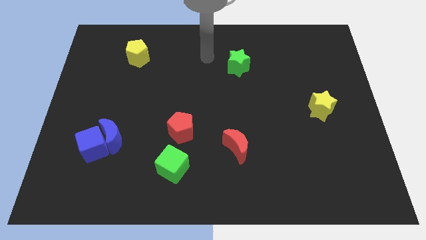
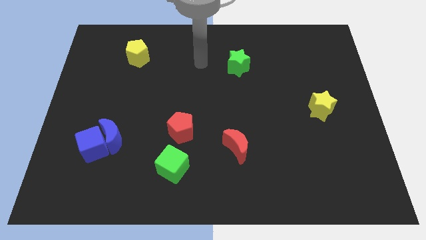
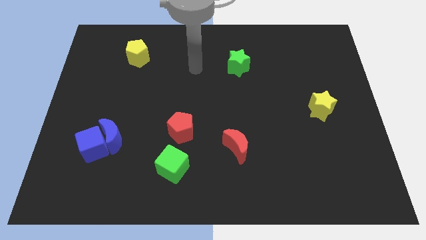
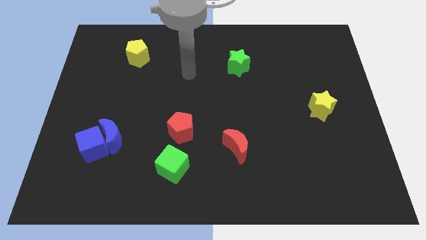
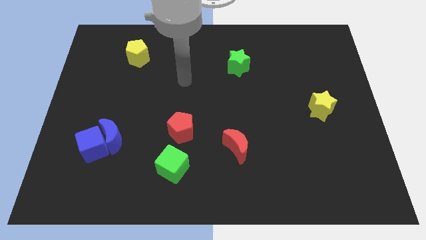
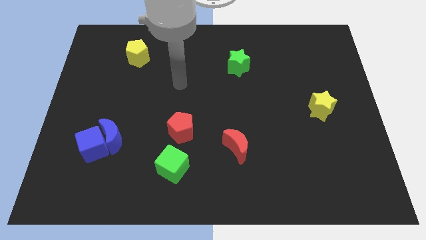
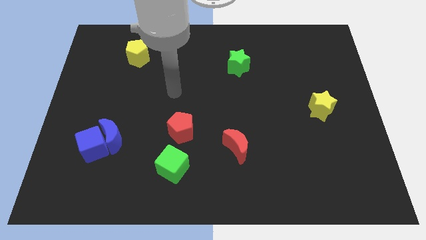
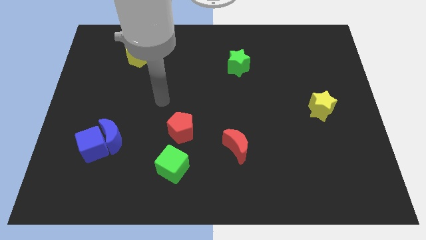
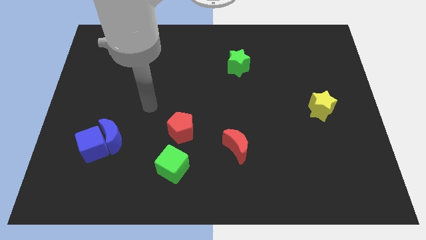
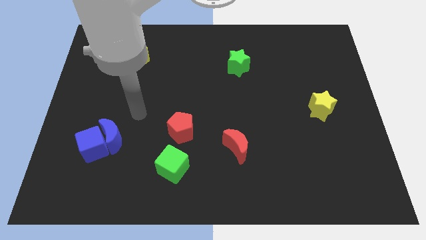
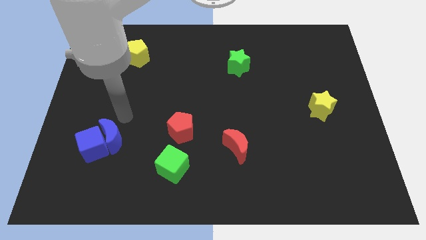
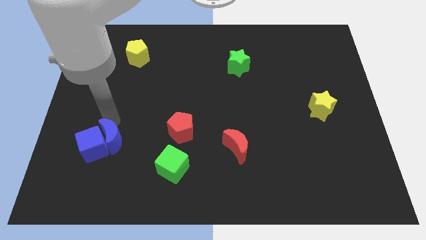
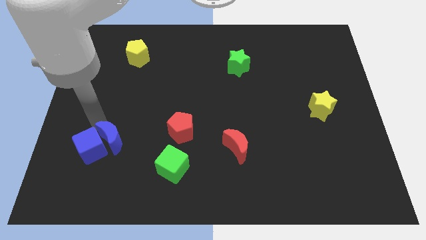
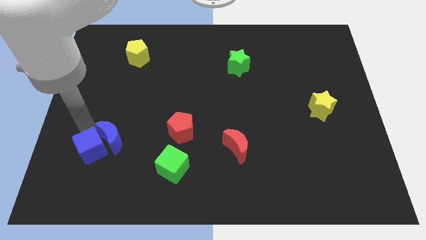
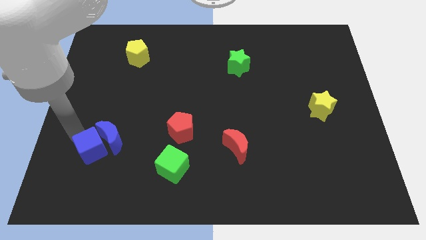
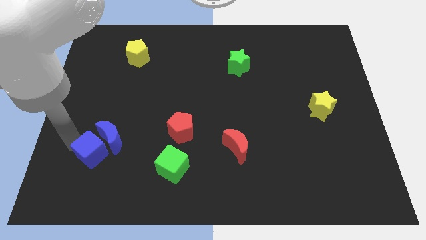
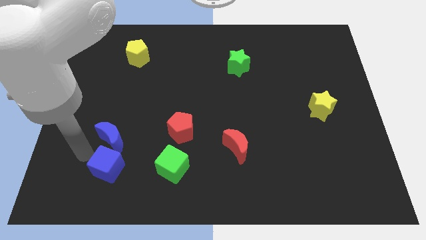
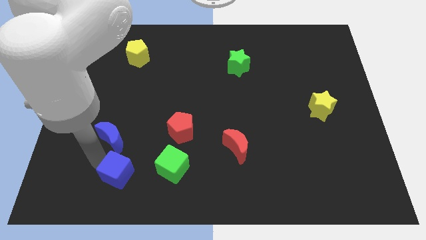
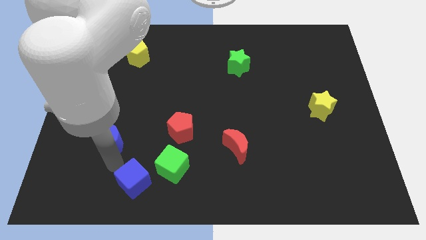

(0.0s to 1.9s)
separate the blue moon from the blue cube

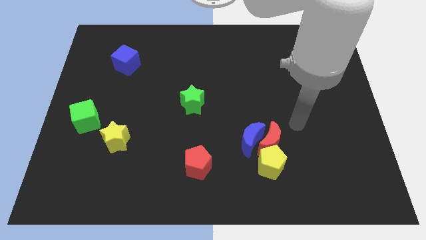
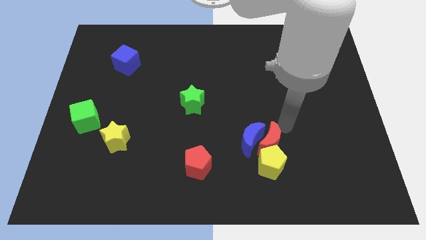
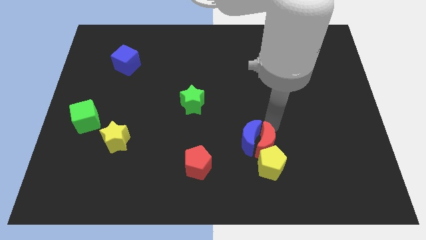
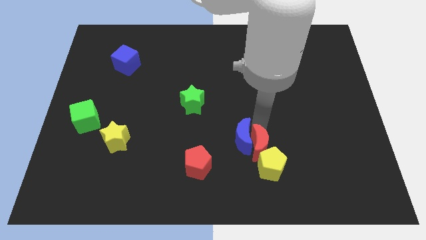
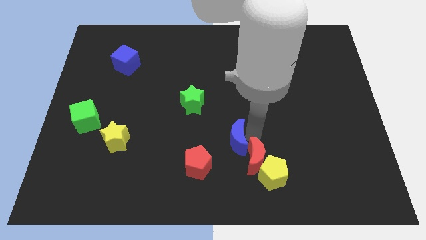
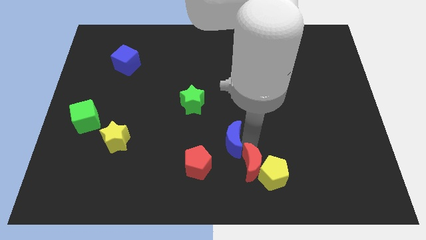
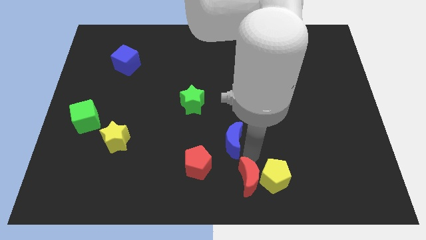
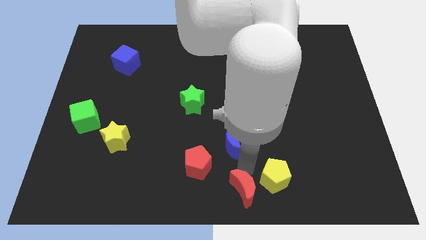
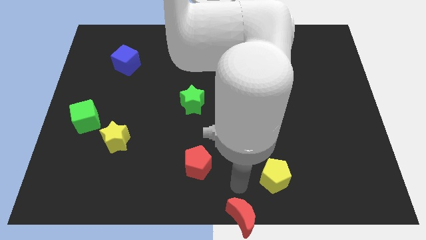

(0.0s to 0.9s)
separate the red moon from the blue moon and yellow pentagon

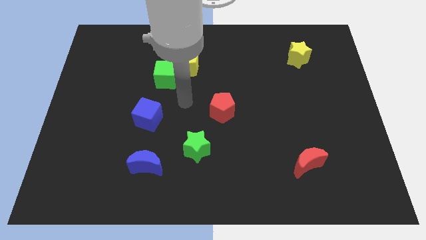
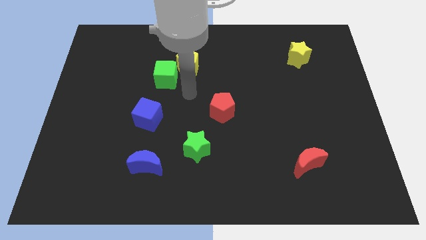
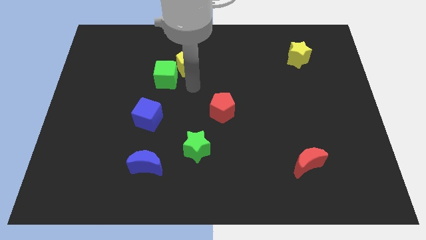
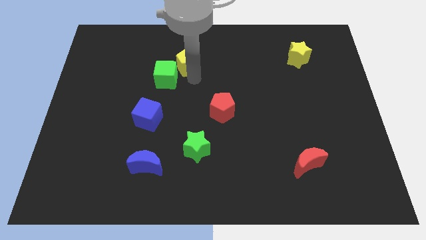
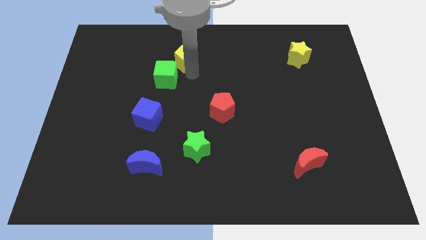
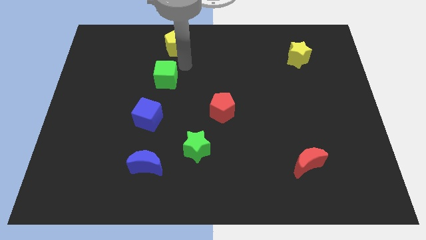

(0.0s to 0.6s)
pull the green cube apart from the yellow pentagon

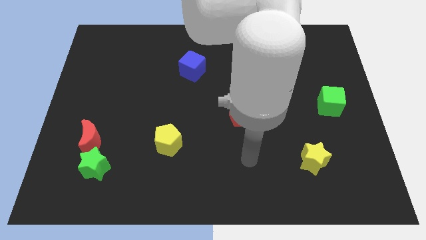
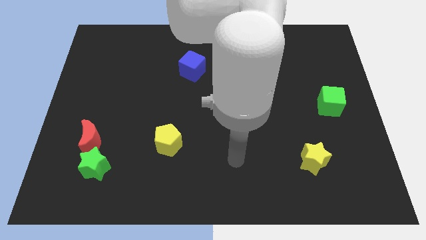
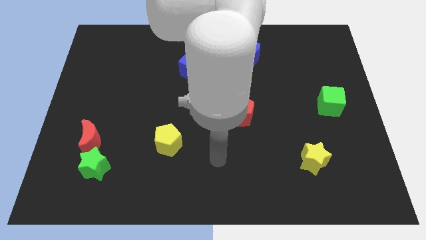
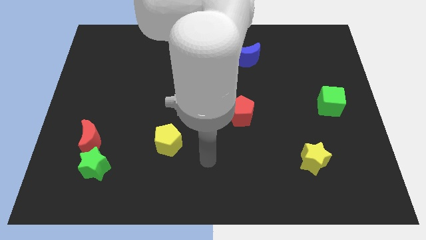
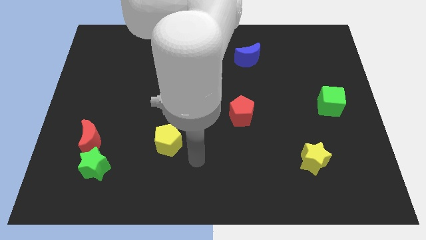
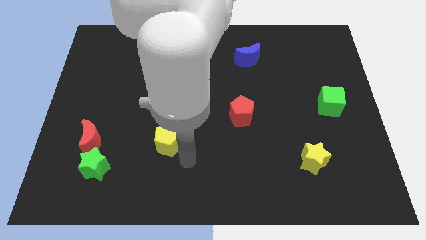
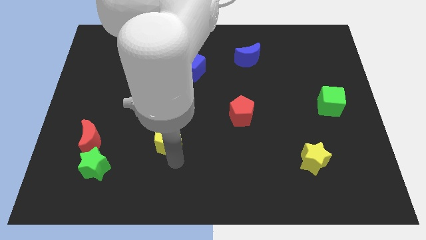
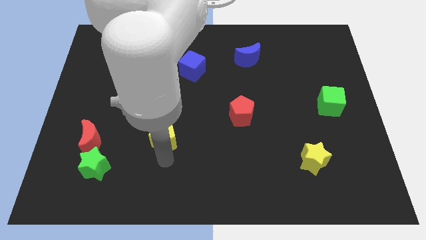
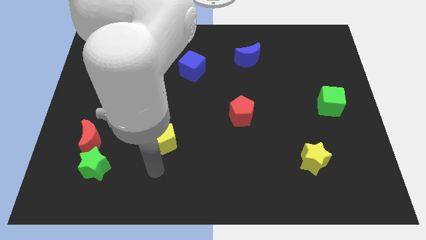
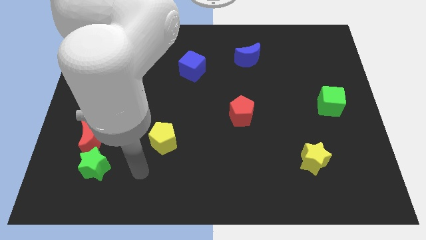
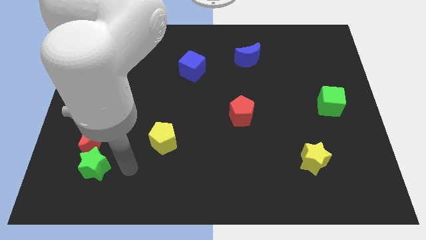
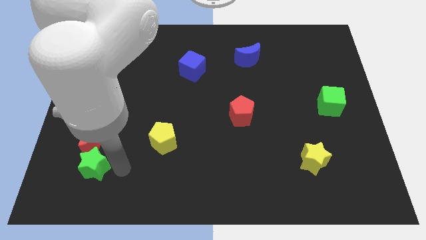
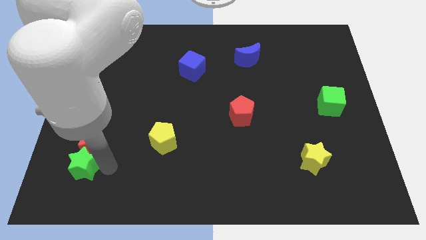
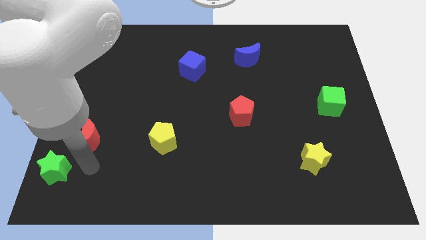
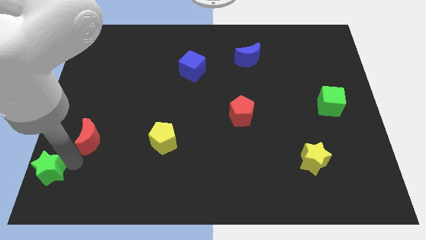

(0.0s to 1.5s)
pull the red moon apart from the green star

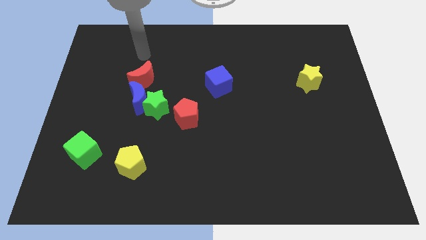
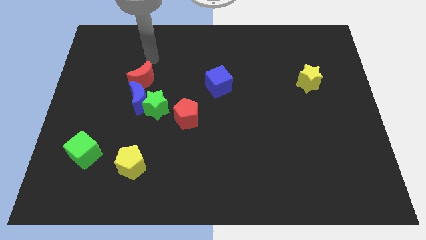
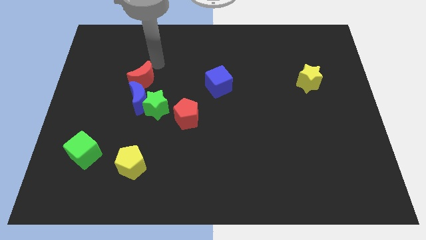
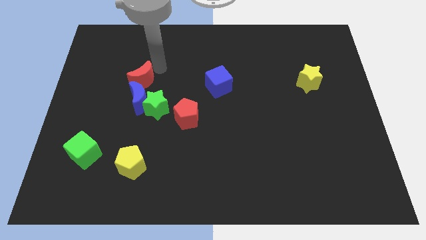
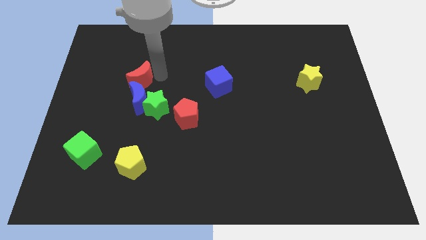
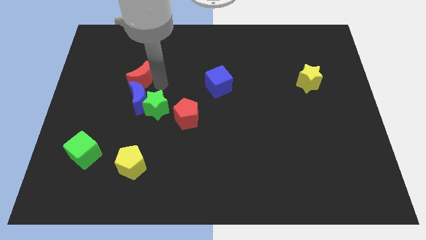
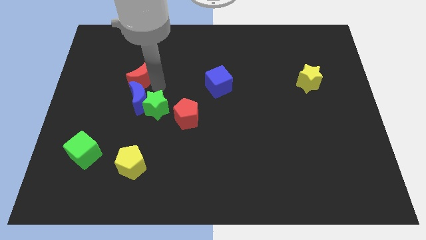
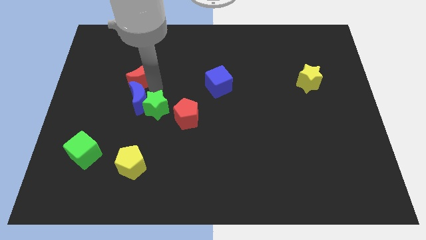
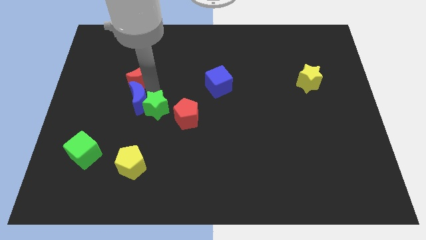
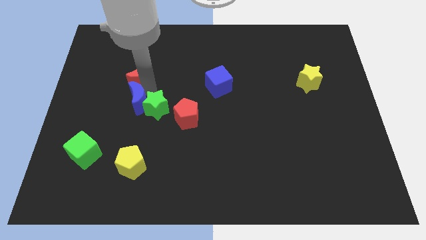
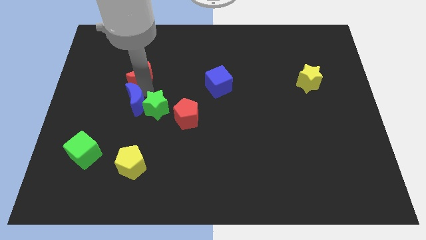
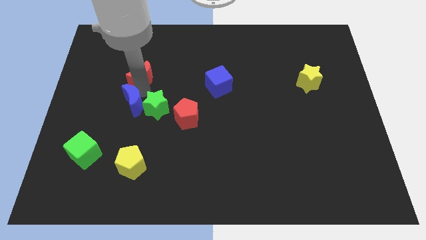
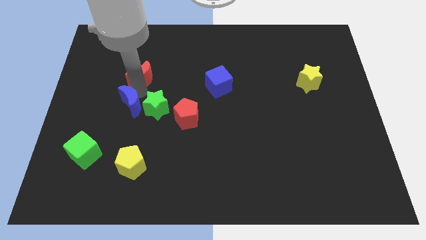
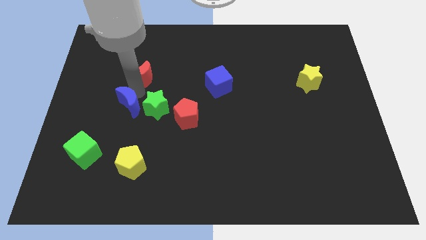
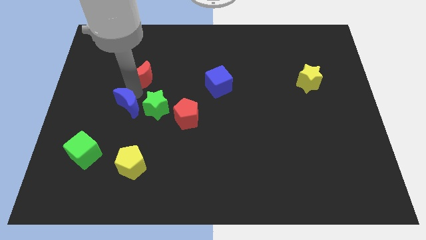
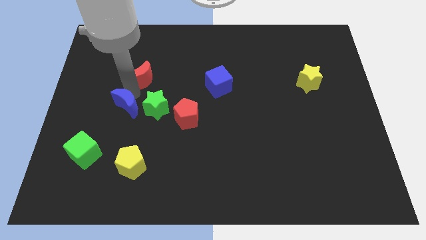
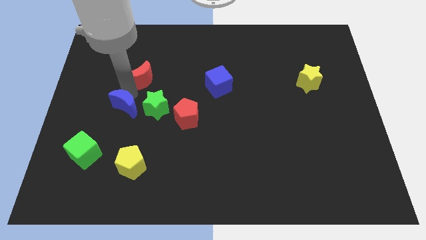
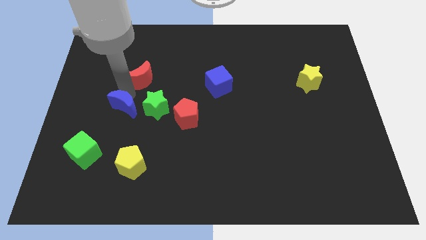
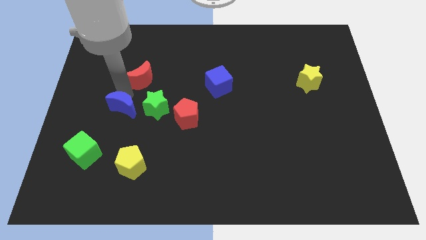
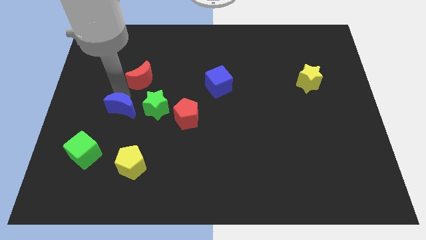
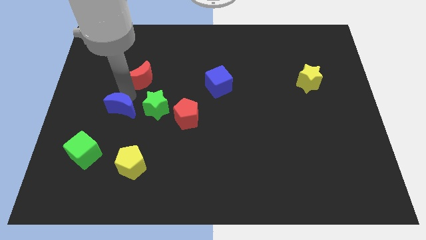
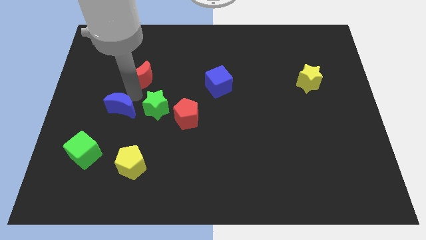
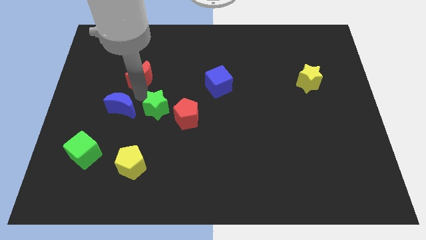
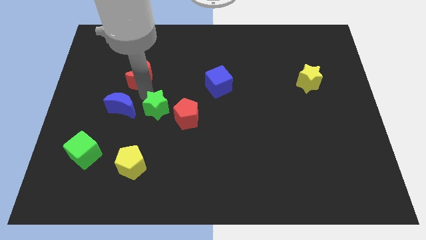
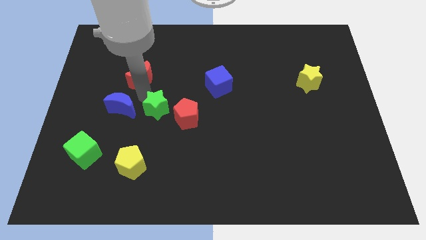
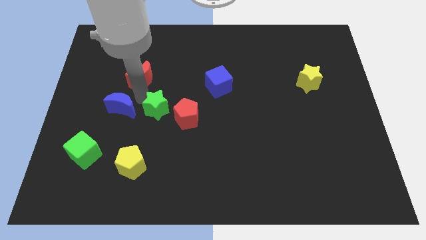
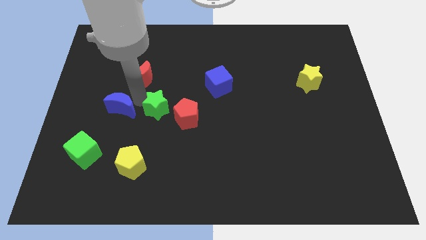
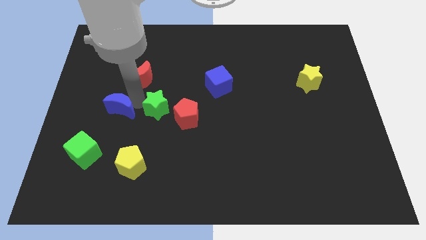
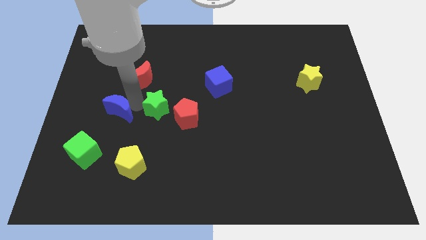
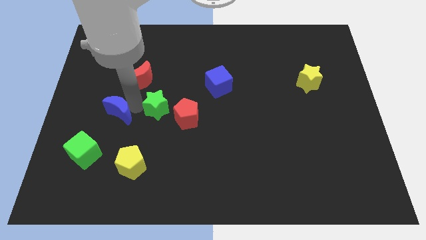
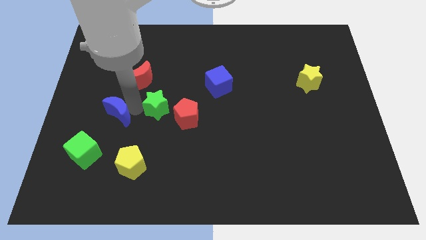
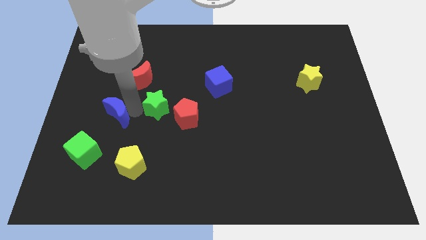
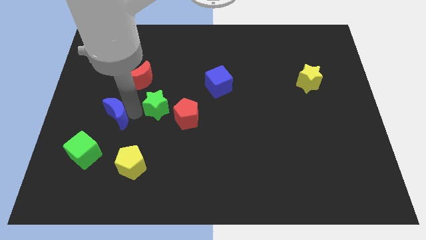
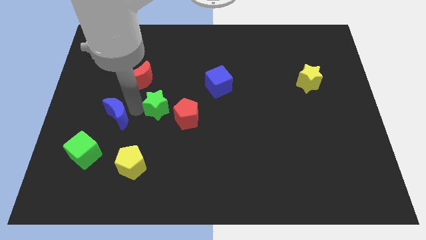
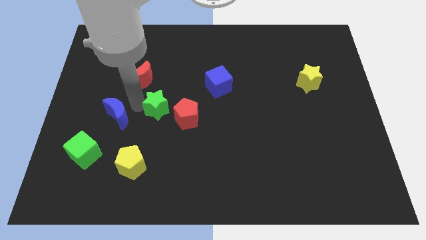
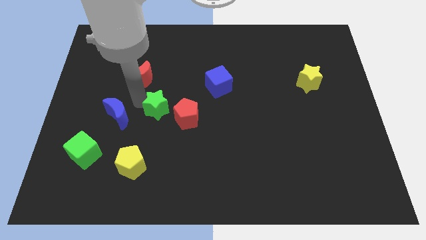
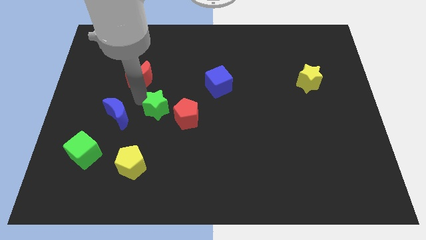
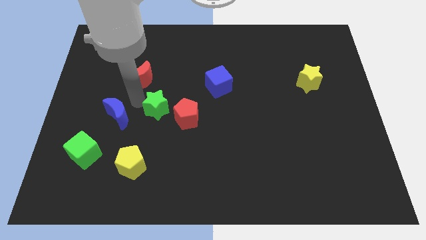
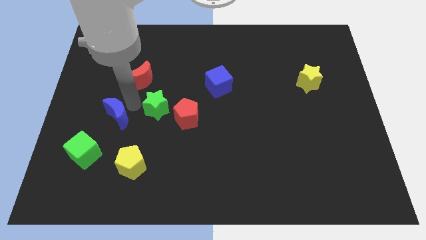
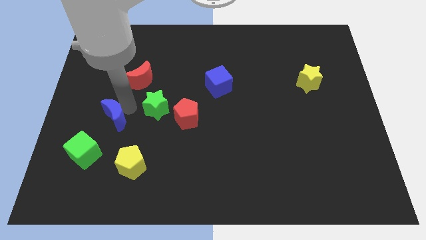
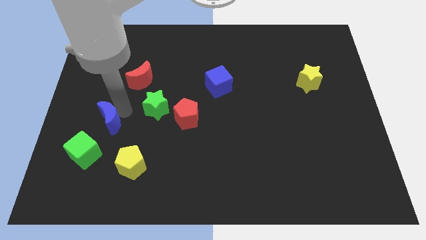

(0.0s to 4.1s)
pull the blue moon apart from the green star and red moon

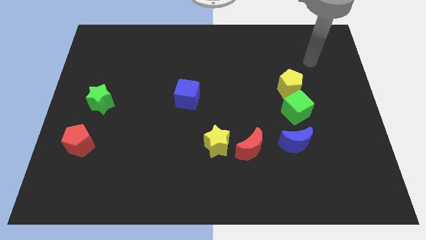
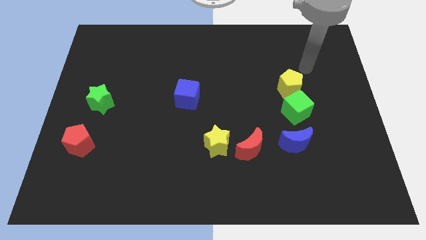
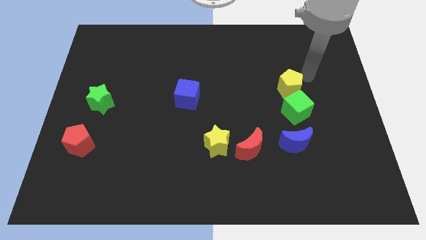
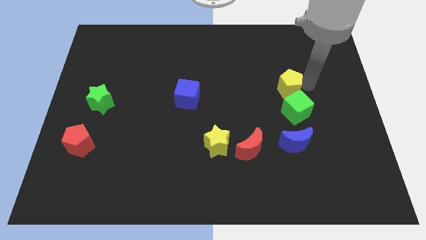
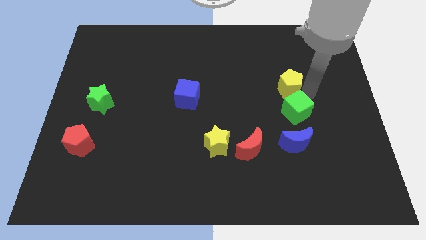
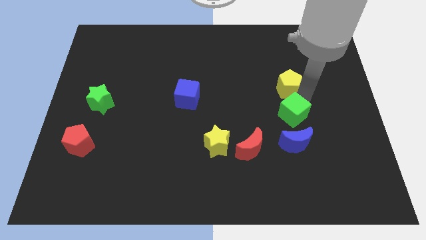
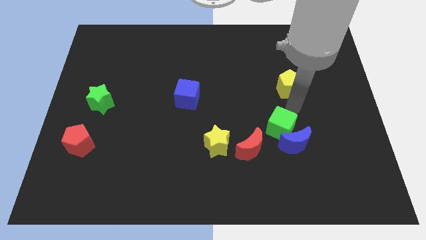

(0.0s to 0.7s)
pull the yellow pentagon apart from the green cube
